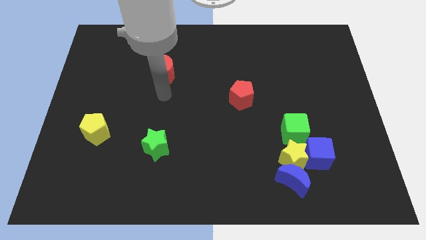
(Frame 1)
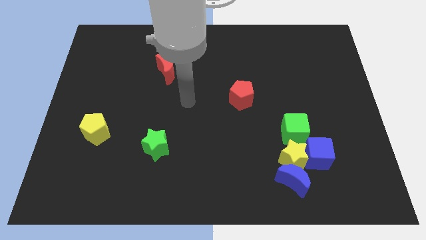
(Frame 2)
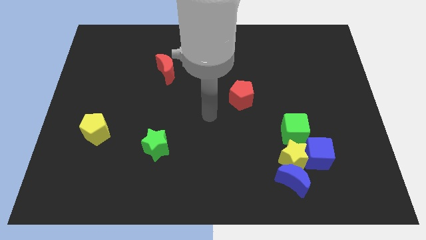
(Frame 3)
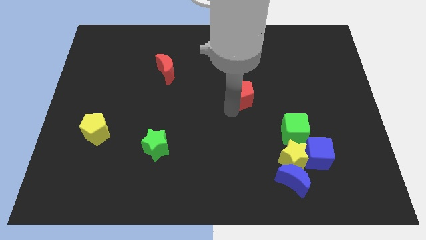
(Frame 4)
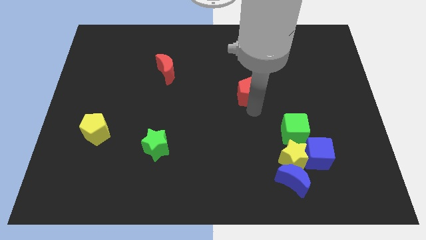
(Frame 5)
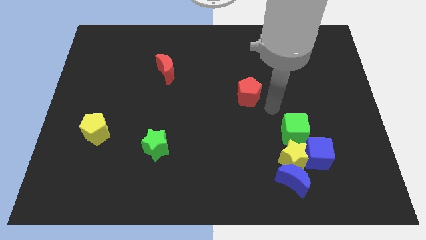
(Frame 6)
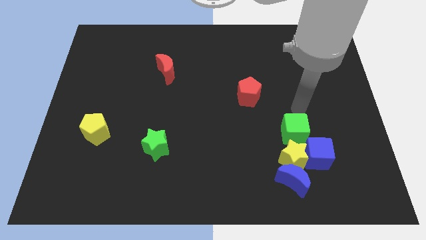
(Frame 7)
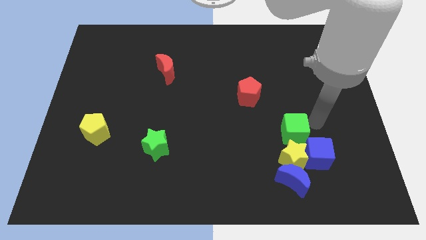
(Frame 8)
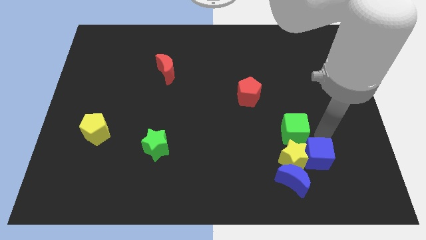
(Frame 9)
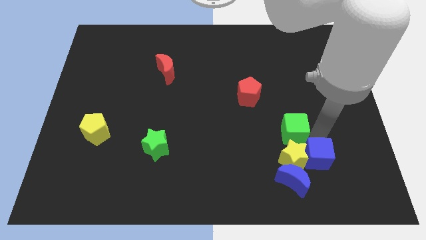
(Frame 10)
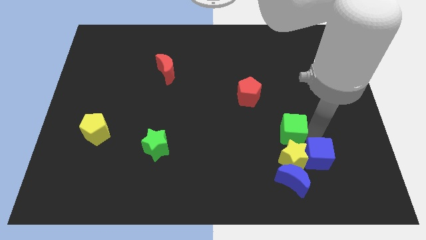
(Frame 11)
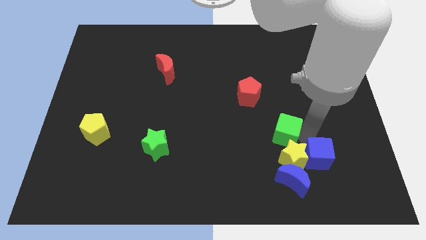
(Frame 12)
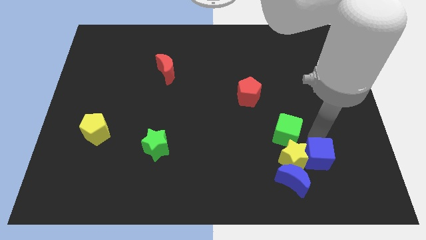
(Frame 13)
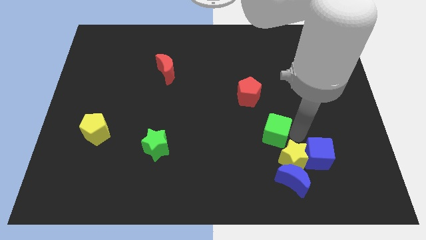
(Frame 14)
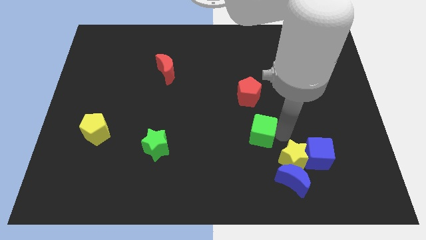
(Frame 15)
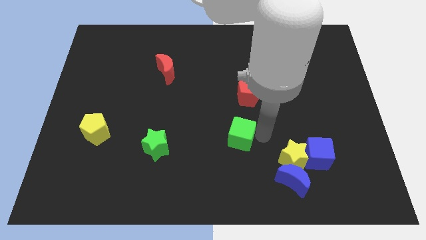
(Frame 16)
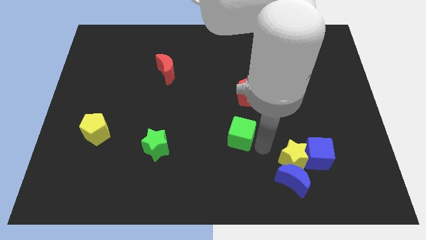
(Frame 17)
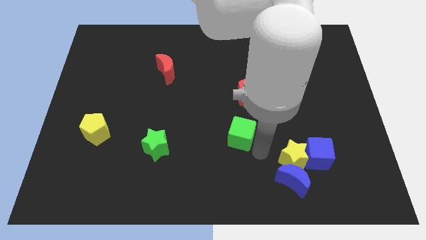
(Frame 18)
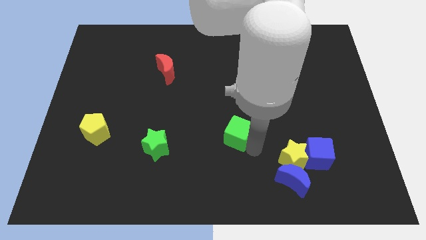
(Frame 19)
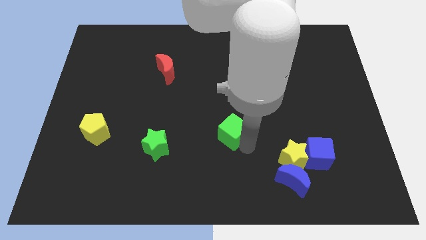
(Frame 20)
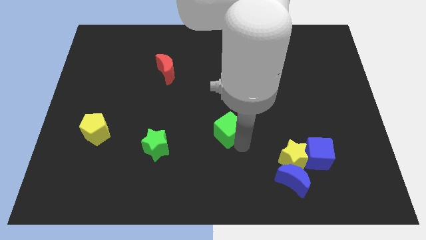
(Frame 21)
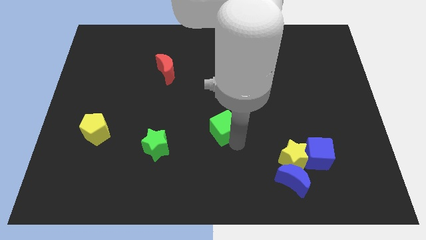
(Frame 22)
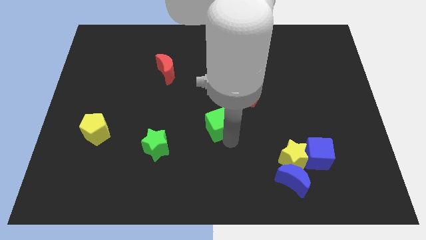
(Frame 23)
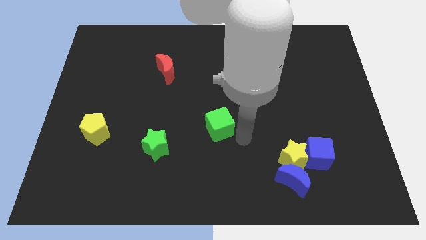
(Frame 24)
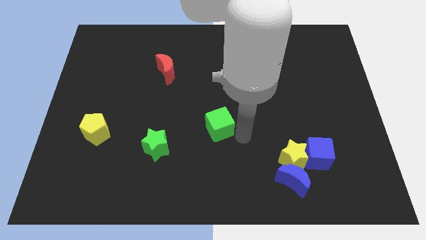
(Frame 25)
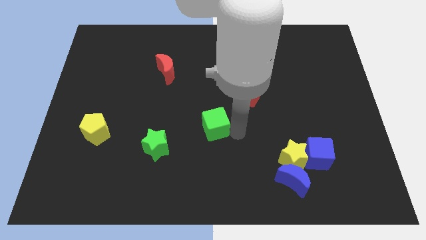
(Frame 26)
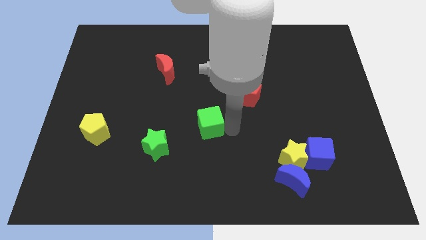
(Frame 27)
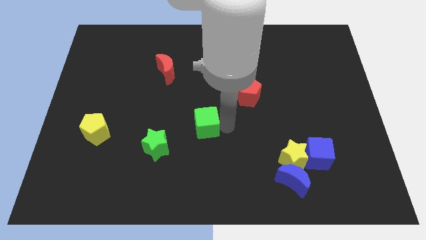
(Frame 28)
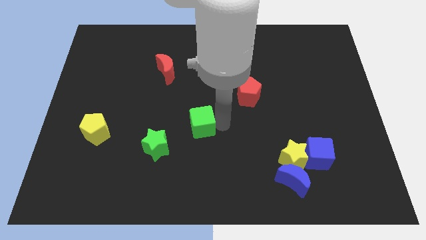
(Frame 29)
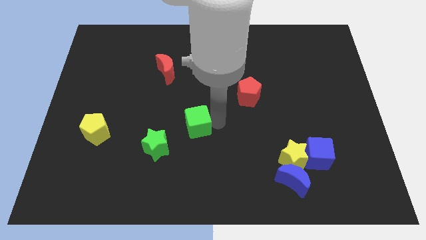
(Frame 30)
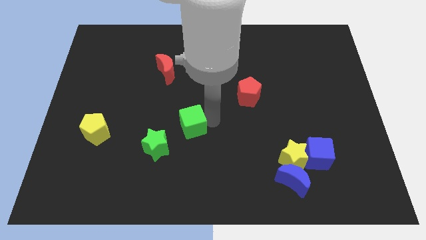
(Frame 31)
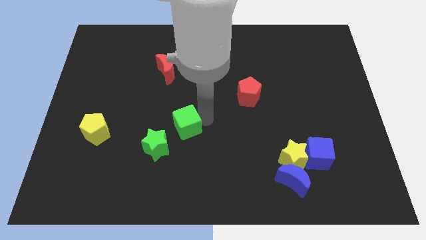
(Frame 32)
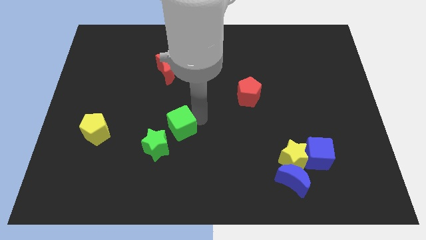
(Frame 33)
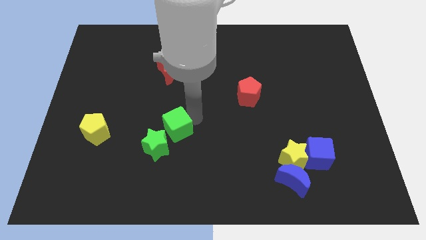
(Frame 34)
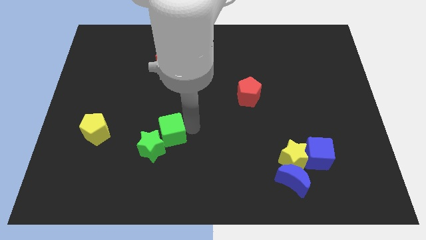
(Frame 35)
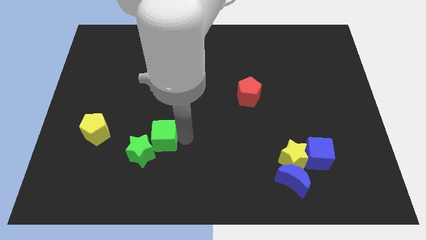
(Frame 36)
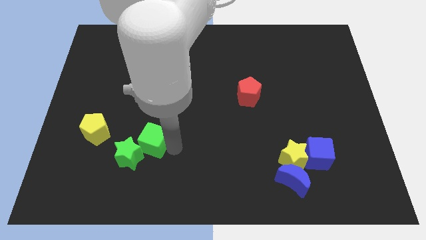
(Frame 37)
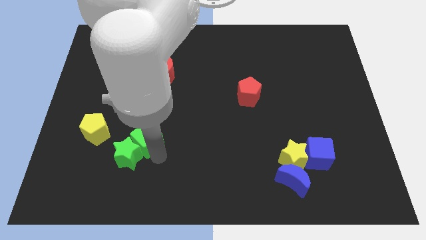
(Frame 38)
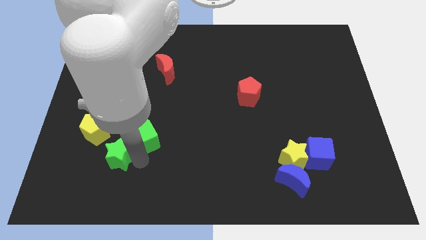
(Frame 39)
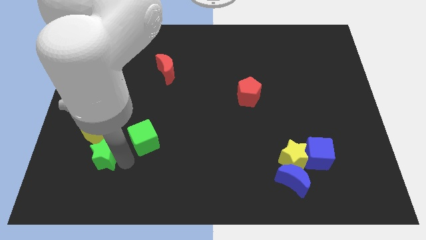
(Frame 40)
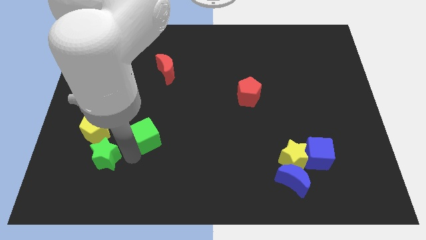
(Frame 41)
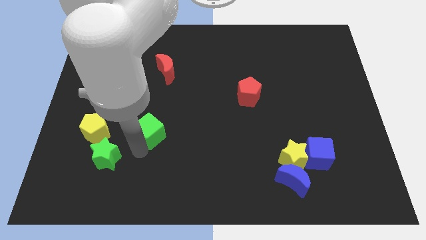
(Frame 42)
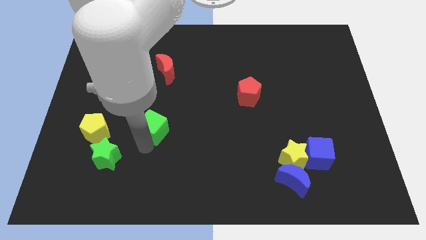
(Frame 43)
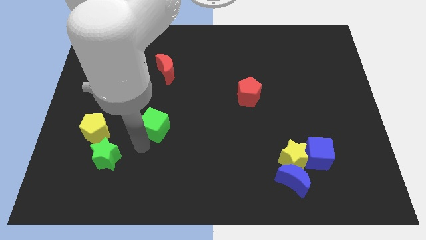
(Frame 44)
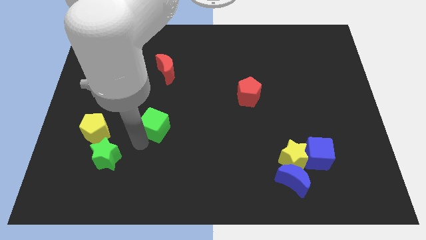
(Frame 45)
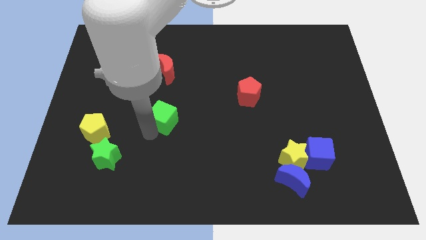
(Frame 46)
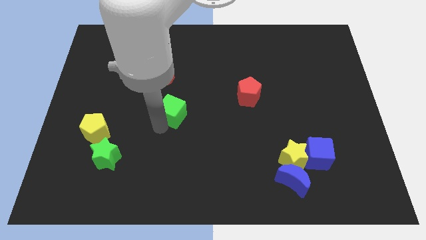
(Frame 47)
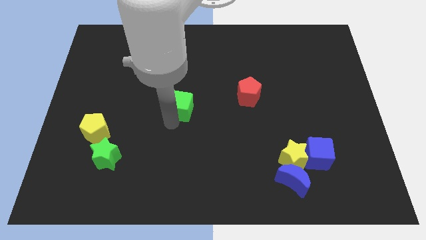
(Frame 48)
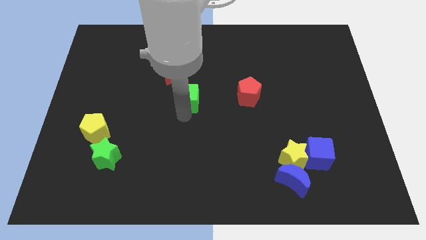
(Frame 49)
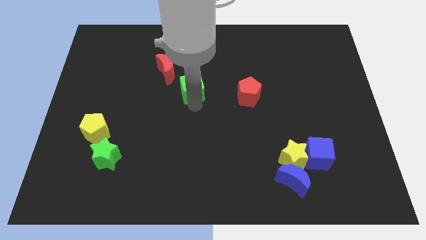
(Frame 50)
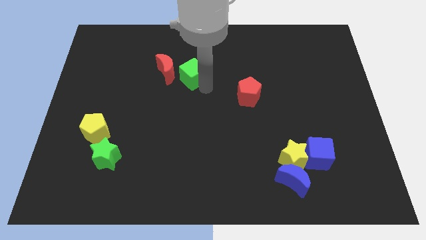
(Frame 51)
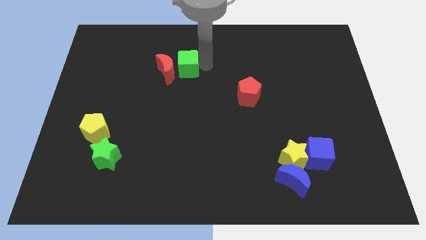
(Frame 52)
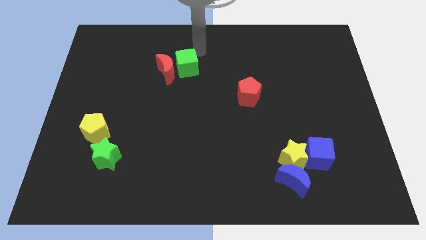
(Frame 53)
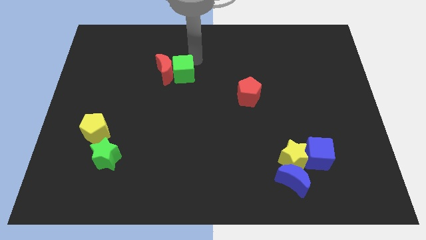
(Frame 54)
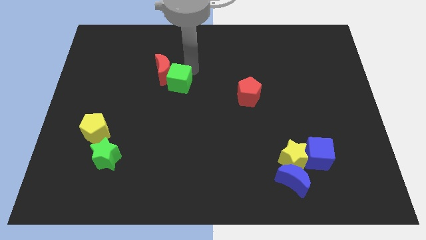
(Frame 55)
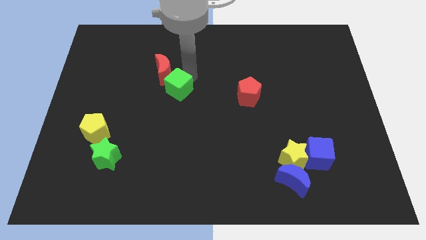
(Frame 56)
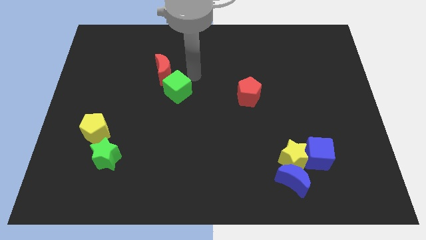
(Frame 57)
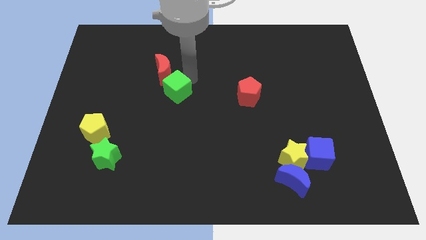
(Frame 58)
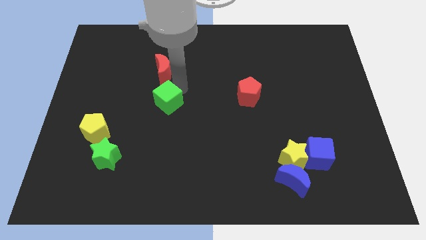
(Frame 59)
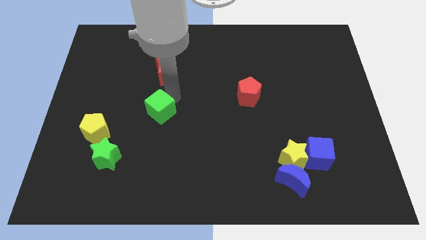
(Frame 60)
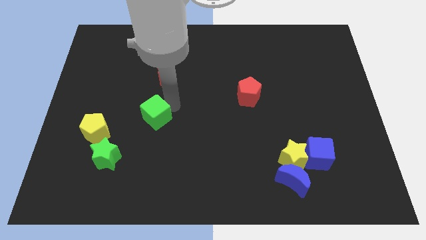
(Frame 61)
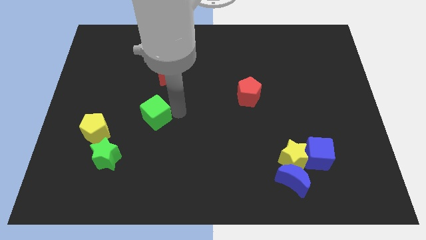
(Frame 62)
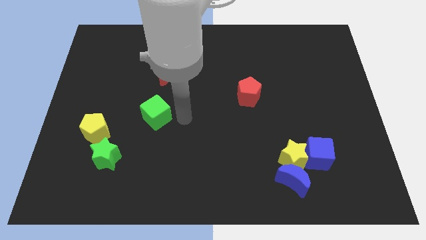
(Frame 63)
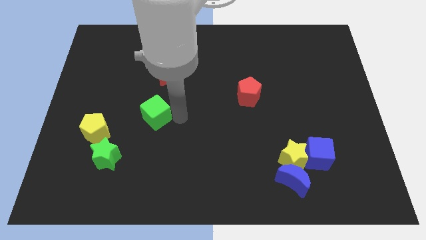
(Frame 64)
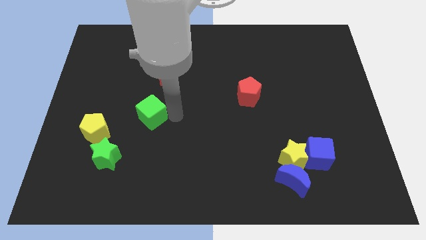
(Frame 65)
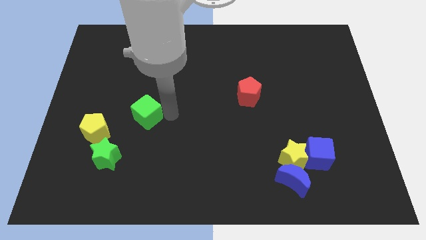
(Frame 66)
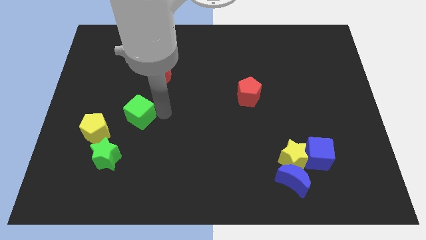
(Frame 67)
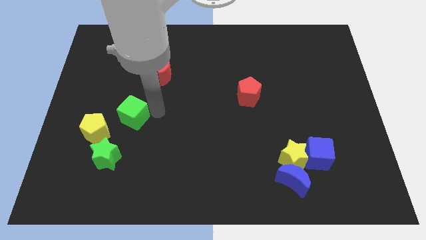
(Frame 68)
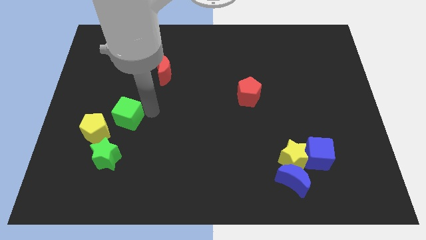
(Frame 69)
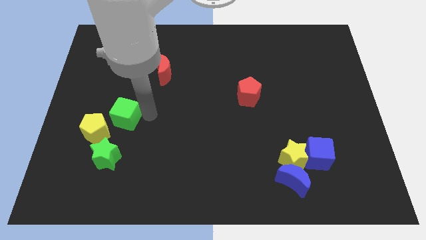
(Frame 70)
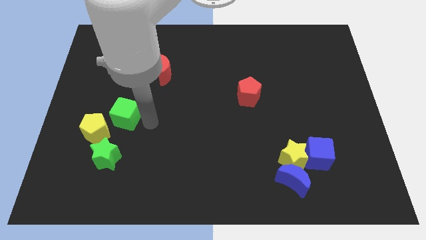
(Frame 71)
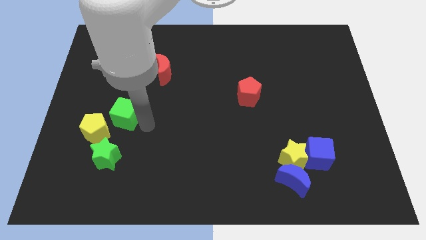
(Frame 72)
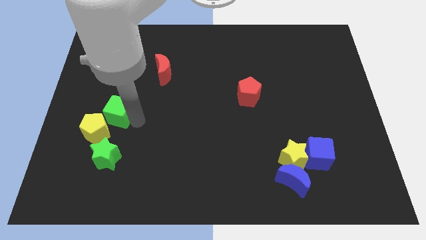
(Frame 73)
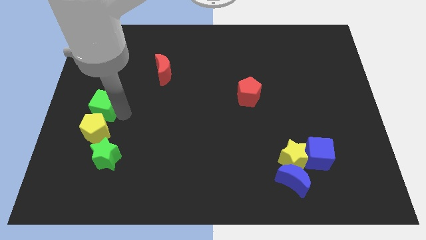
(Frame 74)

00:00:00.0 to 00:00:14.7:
put the green cube to the center left
